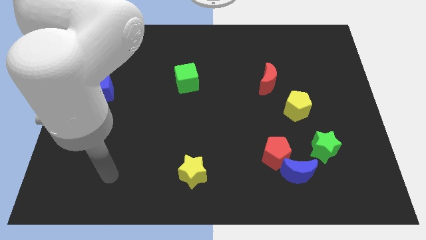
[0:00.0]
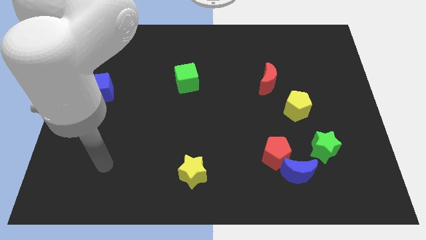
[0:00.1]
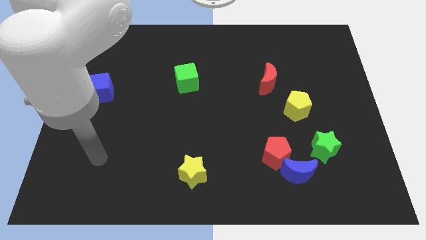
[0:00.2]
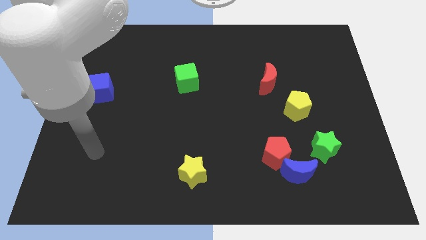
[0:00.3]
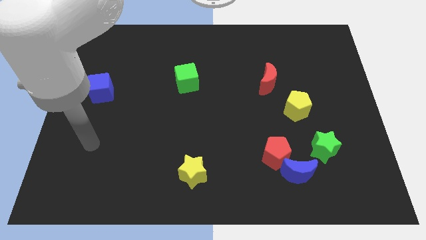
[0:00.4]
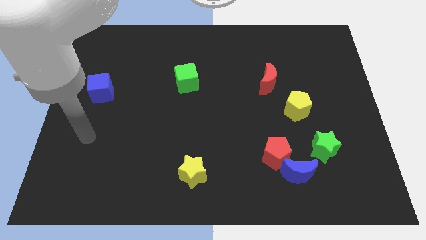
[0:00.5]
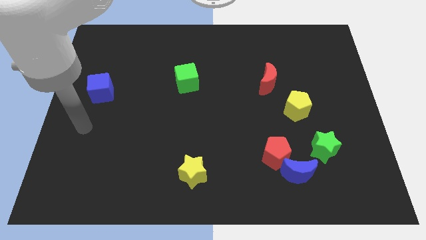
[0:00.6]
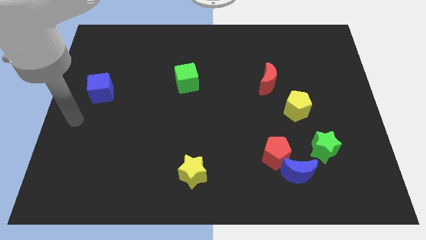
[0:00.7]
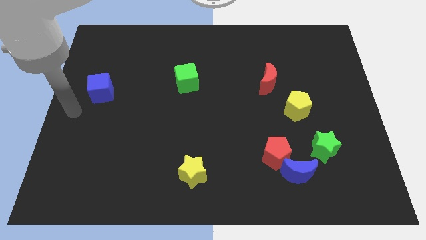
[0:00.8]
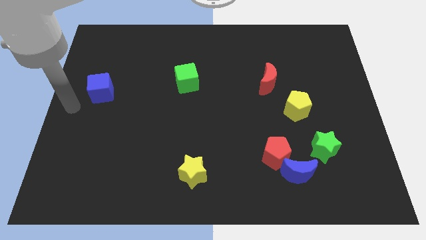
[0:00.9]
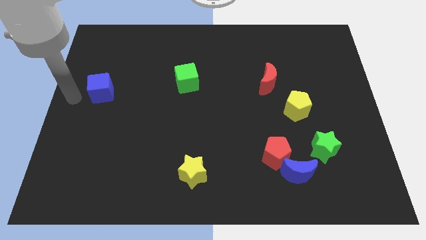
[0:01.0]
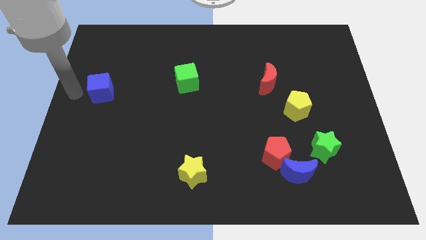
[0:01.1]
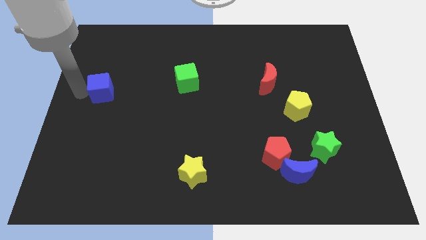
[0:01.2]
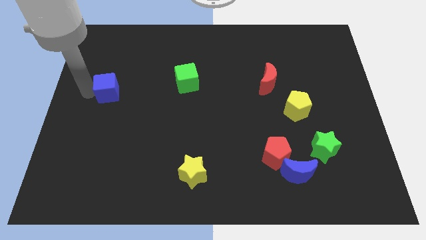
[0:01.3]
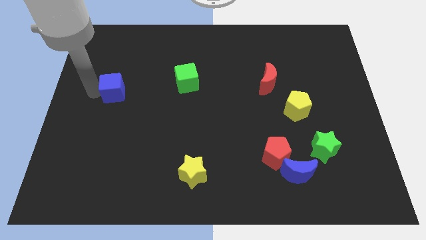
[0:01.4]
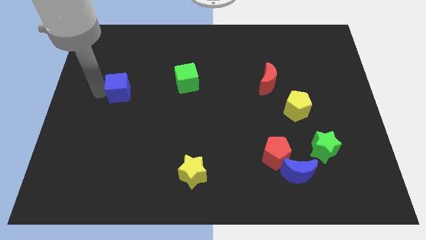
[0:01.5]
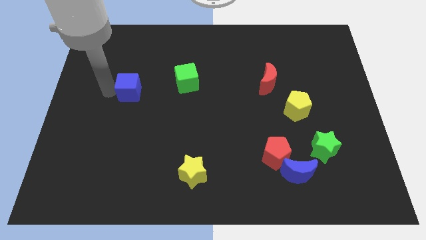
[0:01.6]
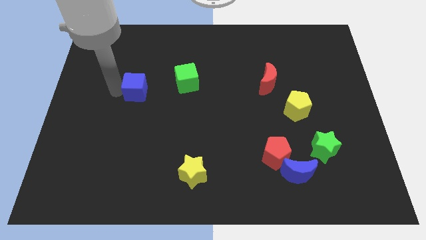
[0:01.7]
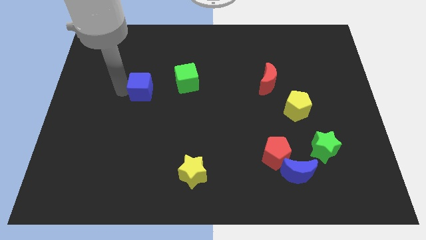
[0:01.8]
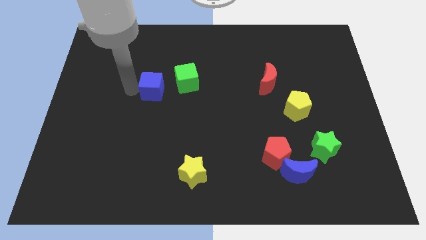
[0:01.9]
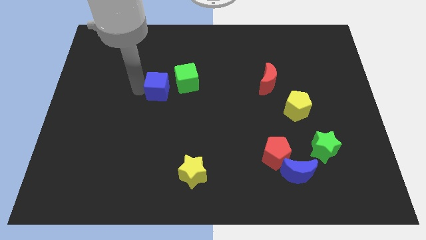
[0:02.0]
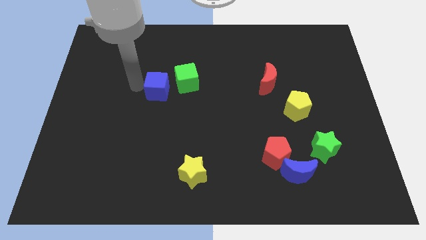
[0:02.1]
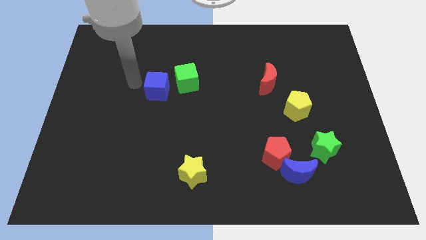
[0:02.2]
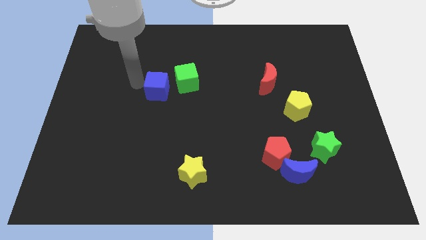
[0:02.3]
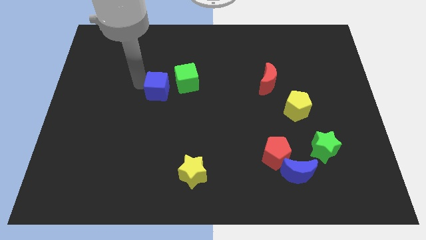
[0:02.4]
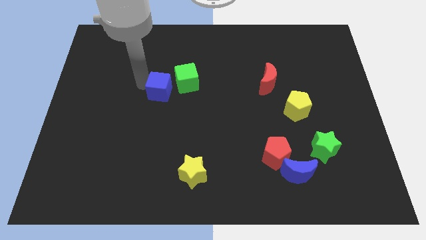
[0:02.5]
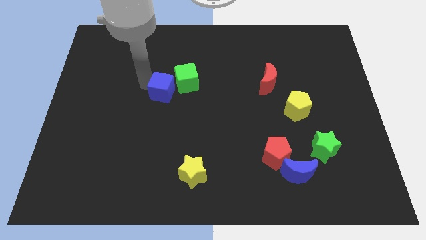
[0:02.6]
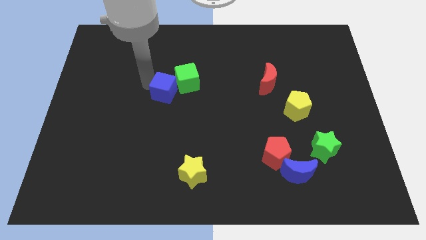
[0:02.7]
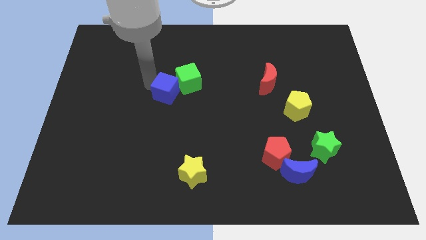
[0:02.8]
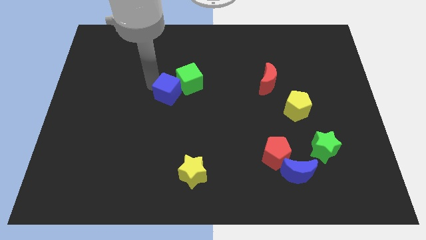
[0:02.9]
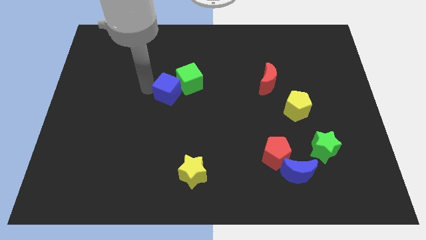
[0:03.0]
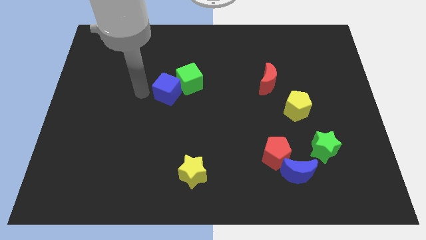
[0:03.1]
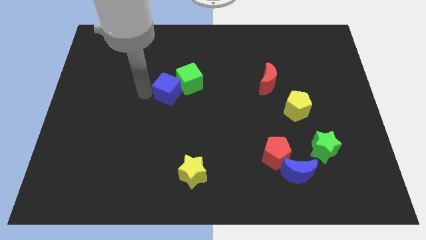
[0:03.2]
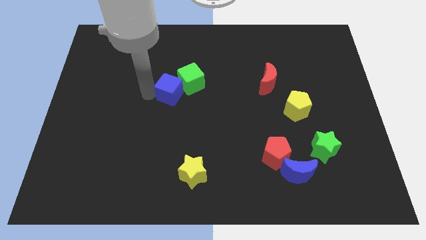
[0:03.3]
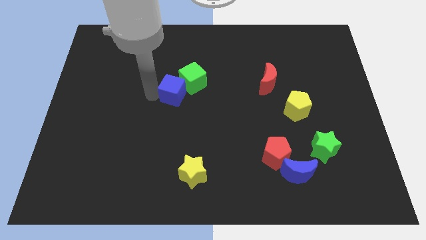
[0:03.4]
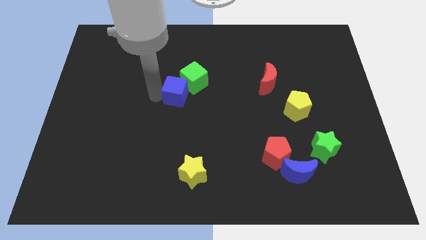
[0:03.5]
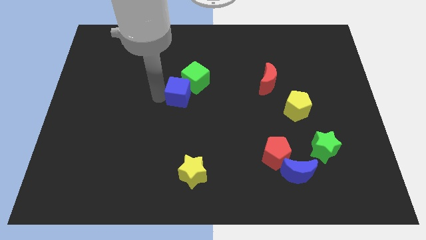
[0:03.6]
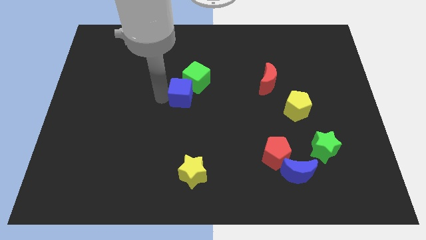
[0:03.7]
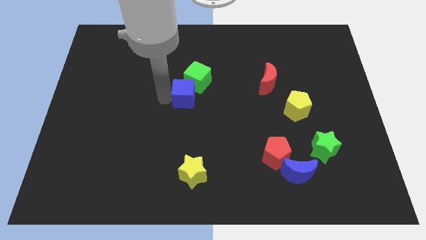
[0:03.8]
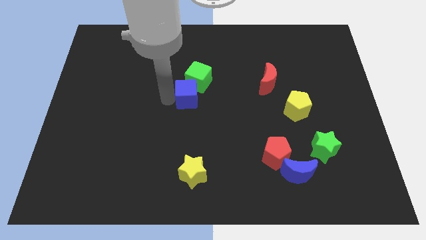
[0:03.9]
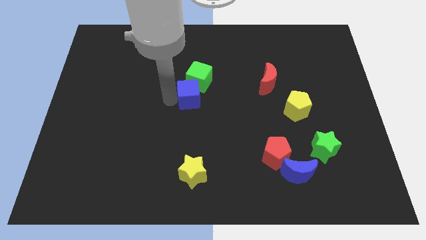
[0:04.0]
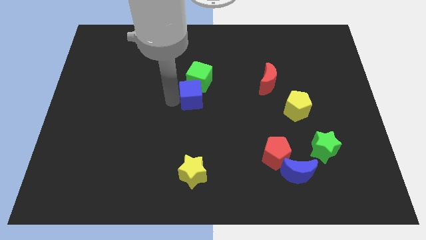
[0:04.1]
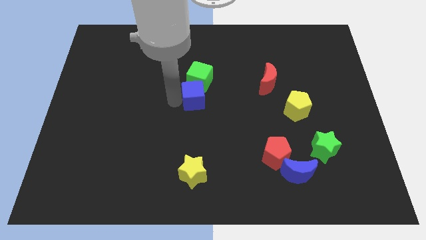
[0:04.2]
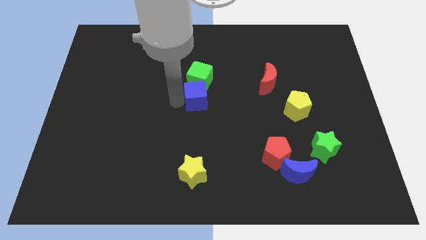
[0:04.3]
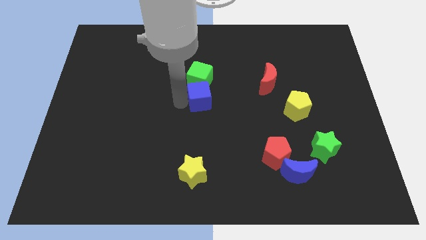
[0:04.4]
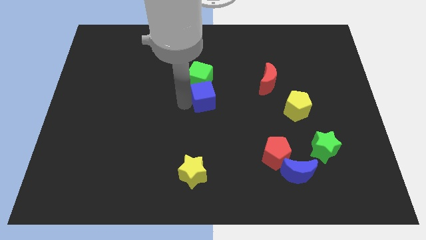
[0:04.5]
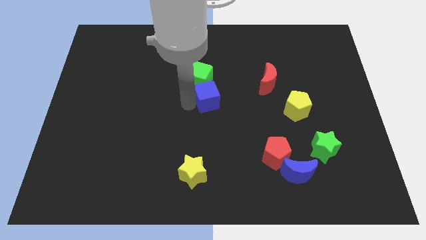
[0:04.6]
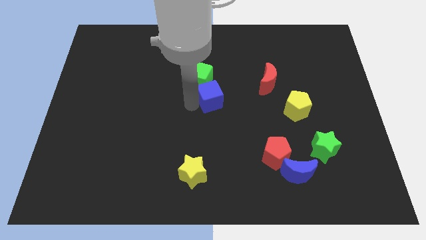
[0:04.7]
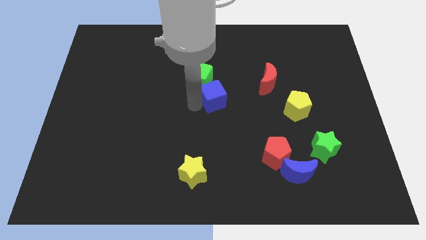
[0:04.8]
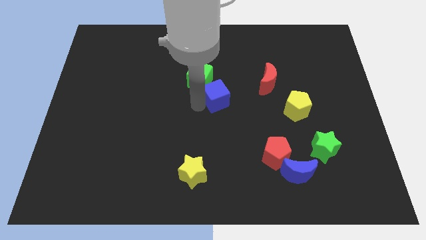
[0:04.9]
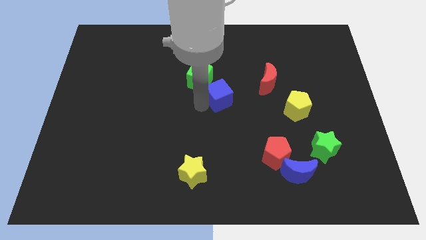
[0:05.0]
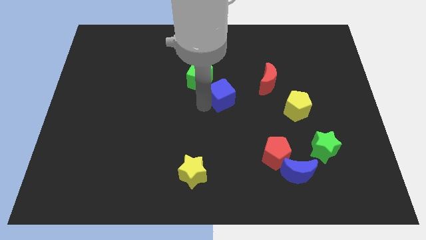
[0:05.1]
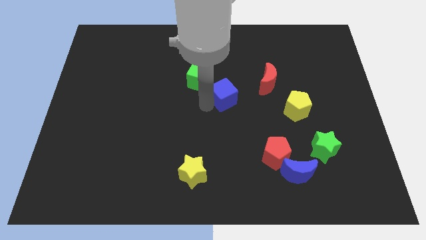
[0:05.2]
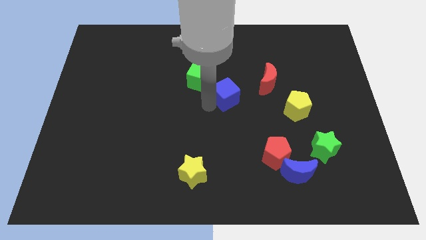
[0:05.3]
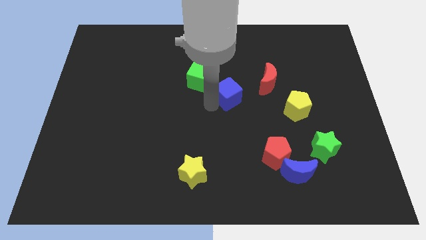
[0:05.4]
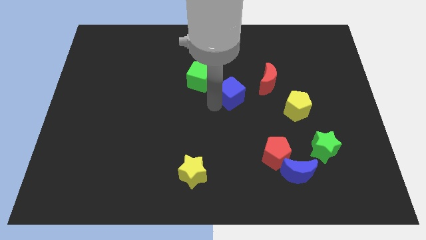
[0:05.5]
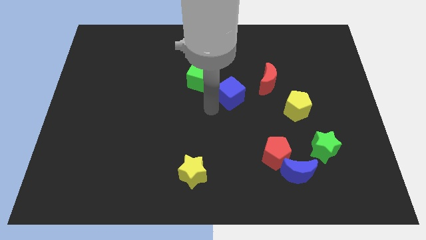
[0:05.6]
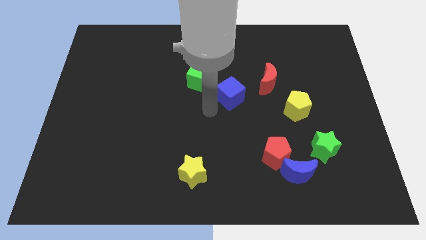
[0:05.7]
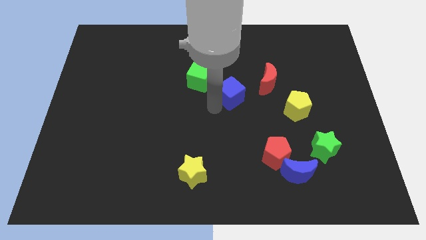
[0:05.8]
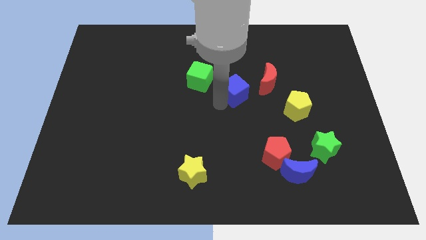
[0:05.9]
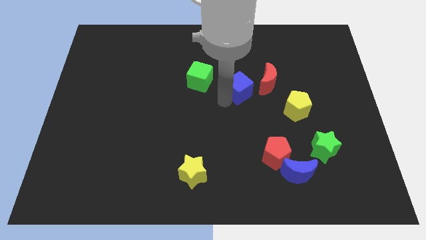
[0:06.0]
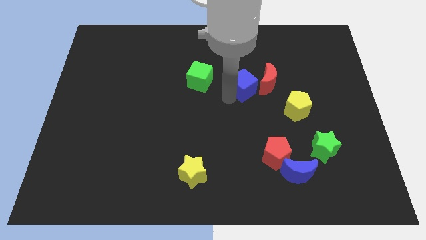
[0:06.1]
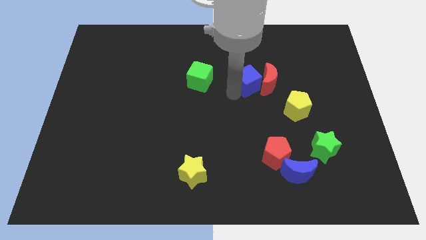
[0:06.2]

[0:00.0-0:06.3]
push the blue cube to the red moon
